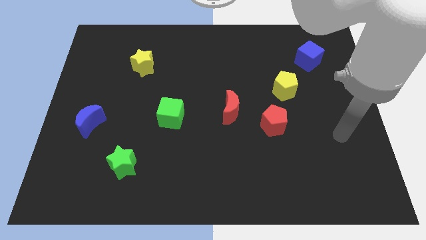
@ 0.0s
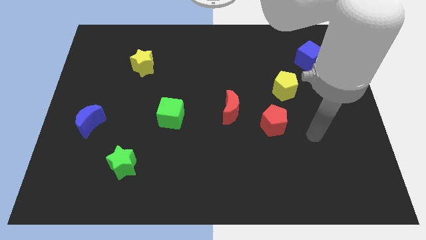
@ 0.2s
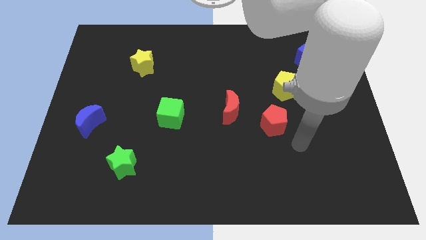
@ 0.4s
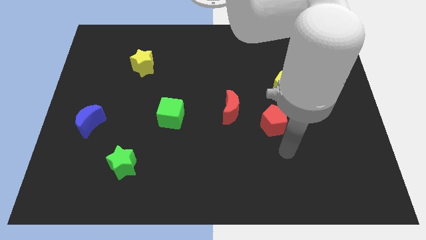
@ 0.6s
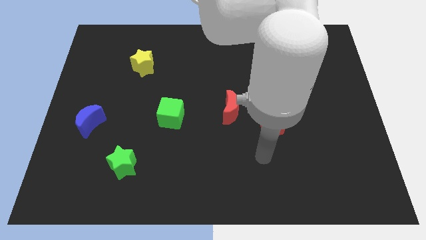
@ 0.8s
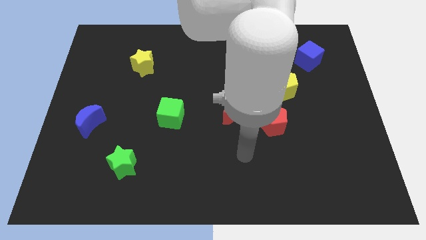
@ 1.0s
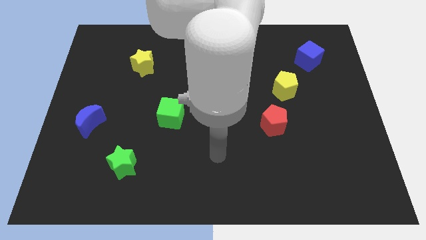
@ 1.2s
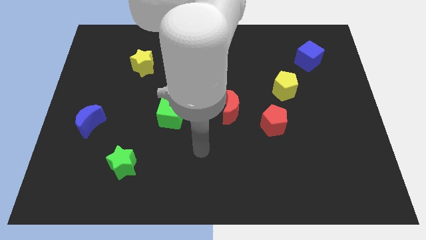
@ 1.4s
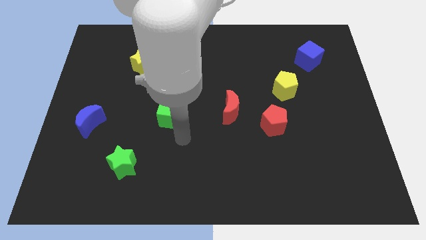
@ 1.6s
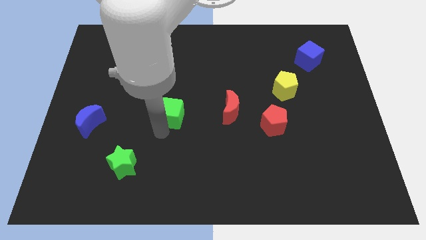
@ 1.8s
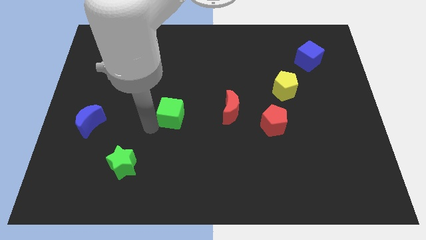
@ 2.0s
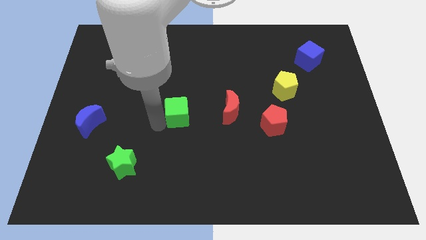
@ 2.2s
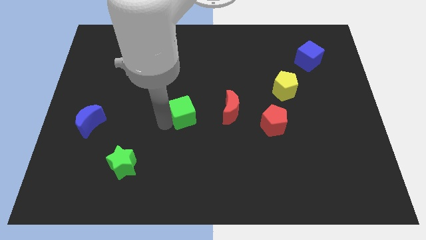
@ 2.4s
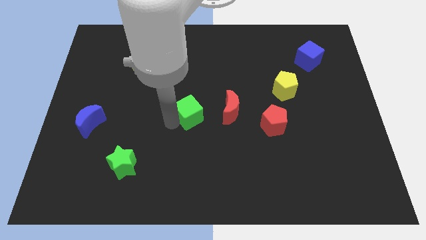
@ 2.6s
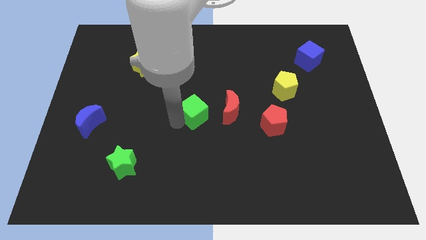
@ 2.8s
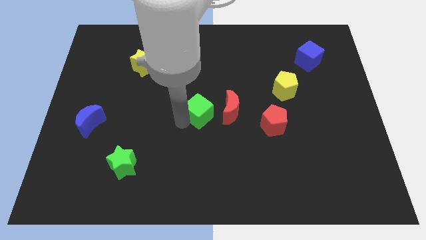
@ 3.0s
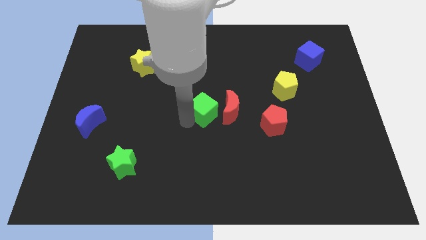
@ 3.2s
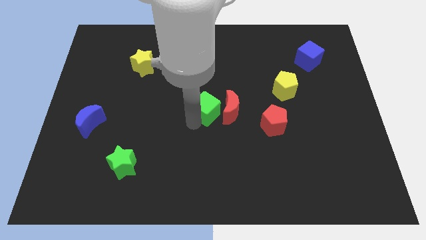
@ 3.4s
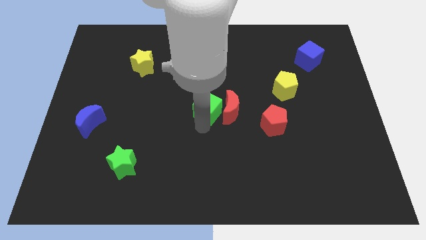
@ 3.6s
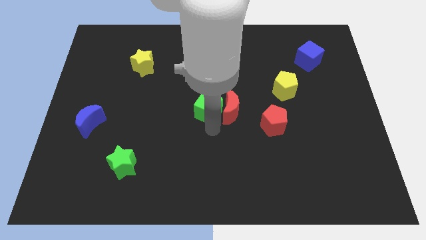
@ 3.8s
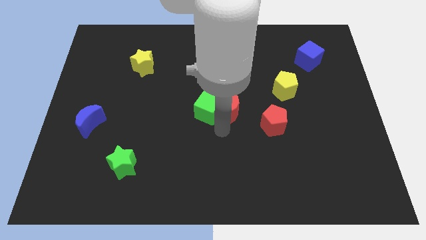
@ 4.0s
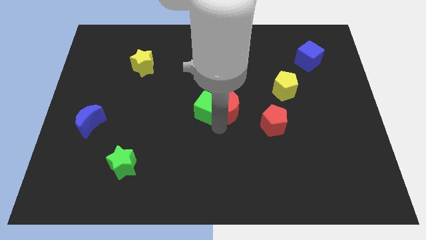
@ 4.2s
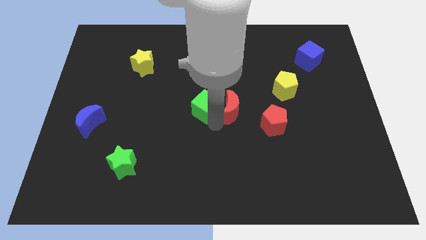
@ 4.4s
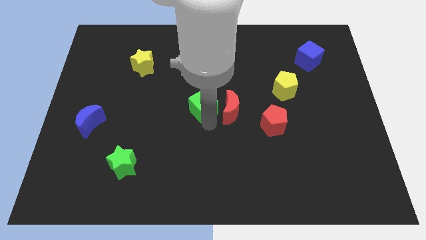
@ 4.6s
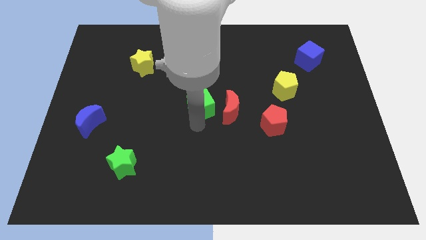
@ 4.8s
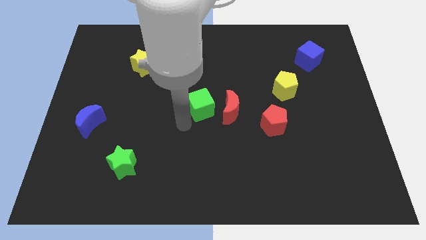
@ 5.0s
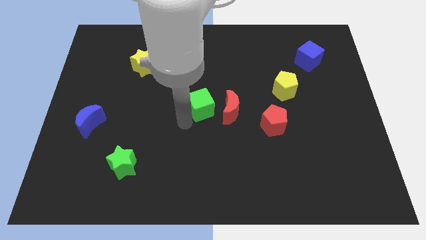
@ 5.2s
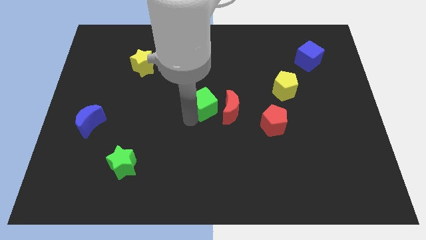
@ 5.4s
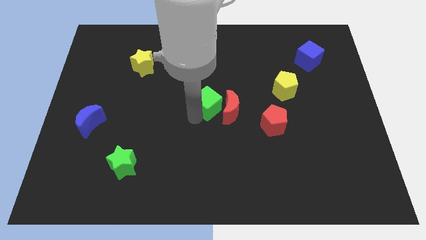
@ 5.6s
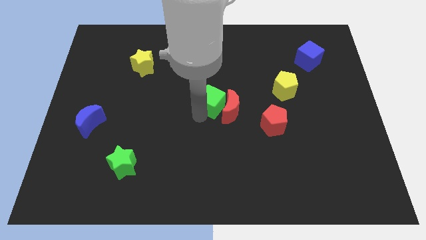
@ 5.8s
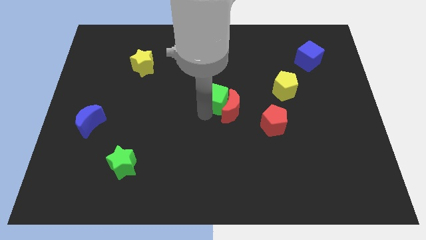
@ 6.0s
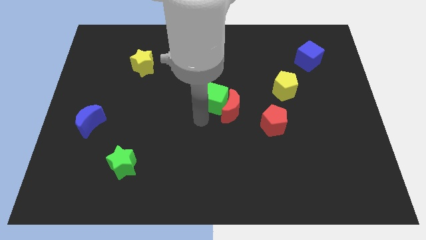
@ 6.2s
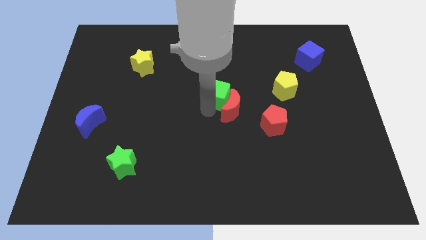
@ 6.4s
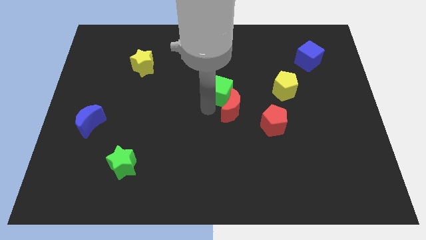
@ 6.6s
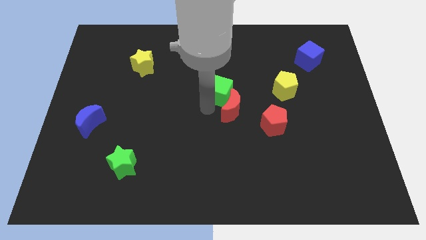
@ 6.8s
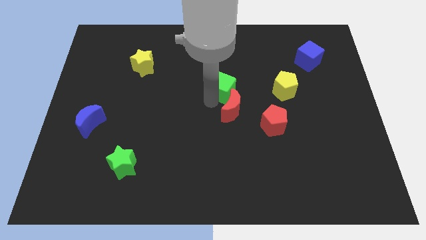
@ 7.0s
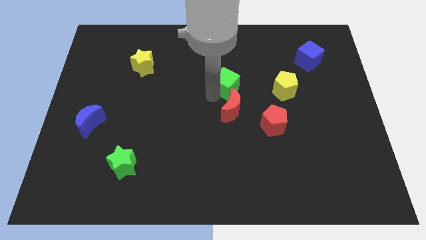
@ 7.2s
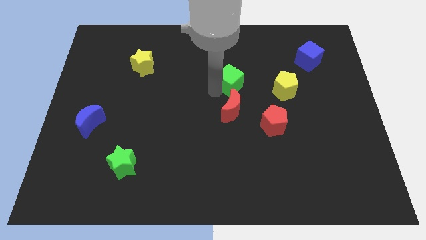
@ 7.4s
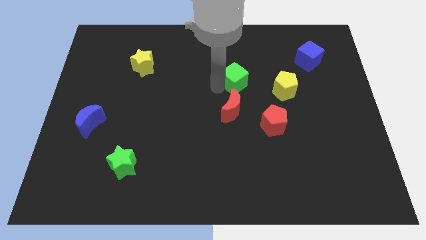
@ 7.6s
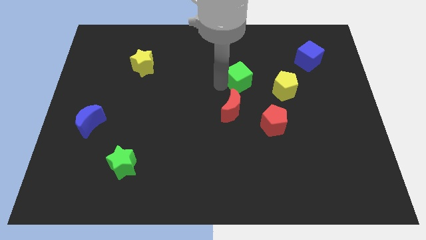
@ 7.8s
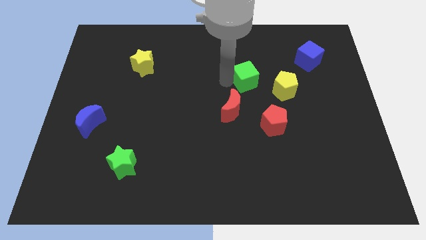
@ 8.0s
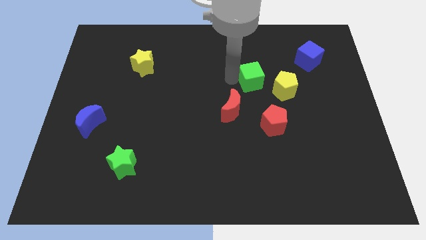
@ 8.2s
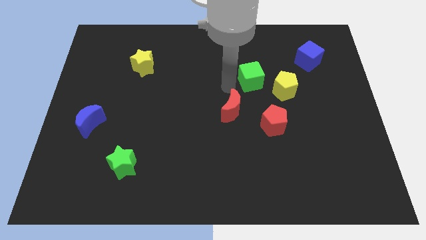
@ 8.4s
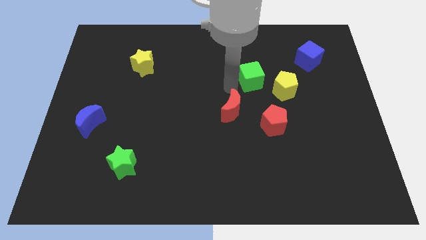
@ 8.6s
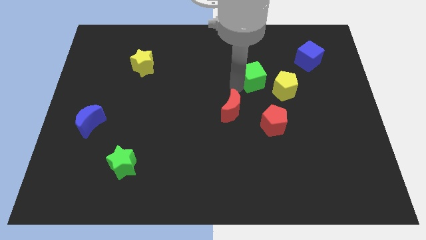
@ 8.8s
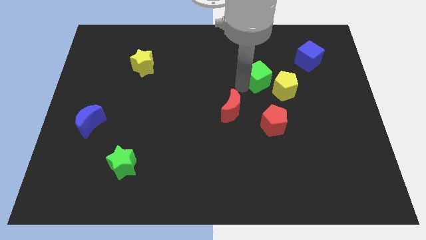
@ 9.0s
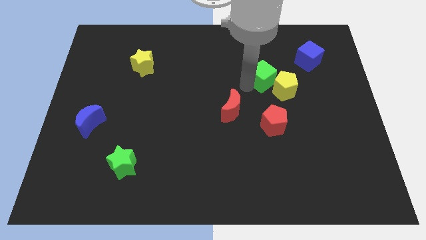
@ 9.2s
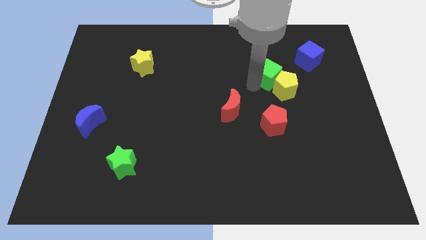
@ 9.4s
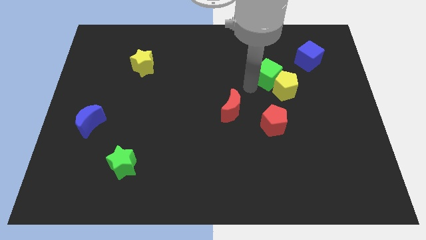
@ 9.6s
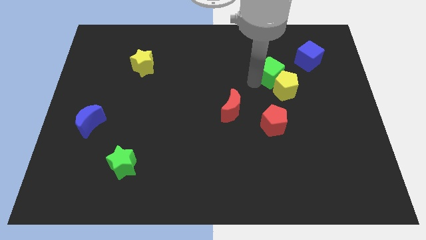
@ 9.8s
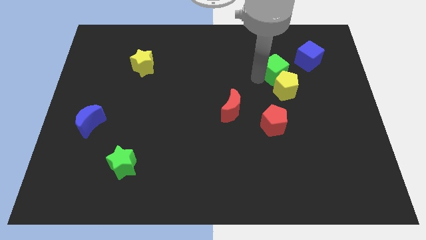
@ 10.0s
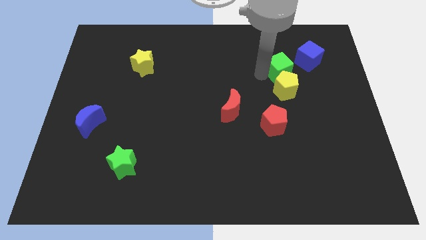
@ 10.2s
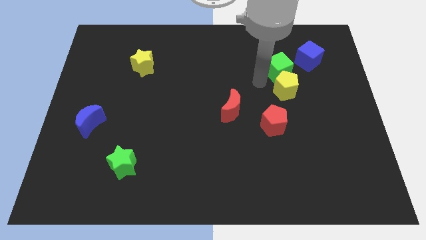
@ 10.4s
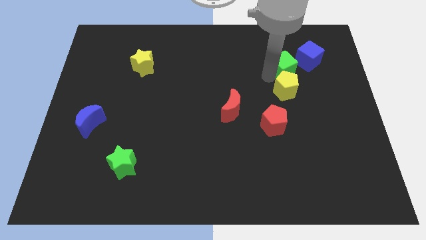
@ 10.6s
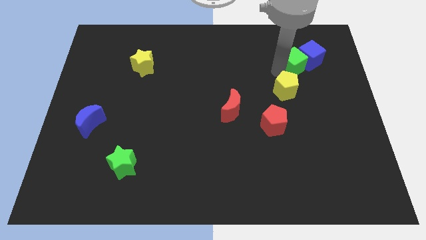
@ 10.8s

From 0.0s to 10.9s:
slide the green cube next to the blue cube

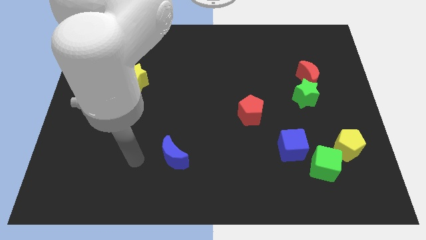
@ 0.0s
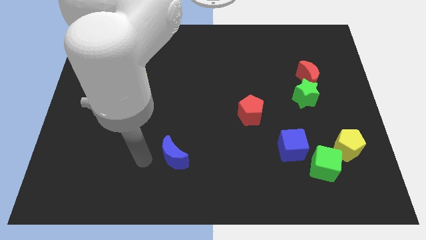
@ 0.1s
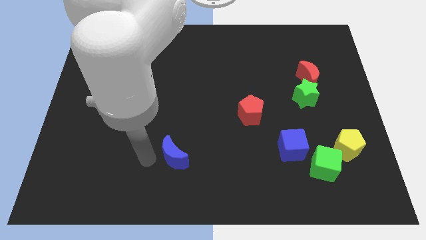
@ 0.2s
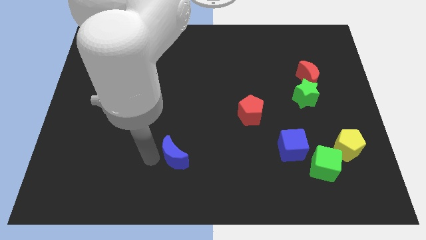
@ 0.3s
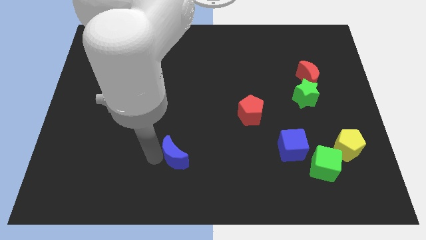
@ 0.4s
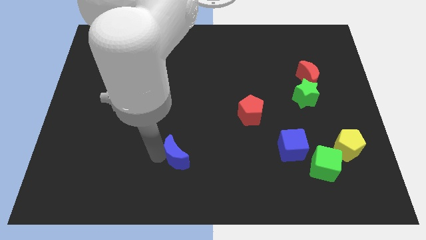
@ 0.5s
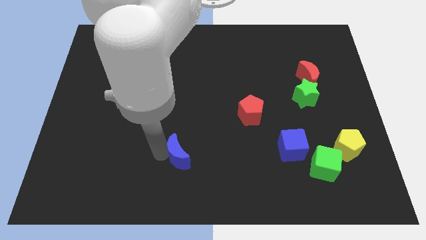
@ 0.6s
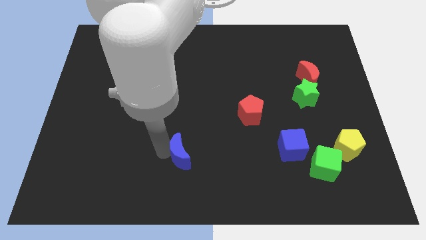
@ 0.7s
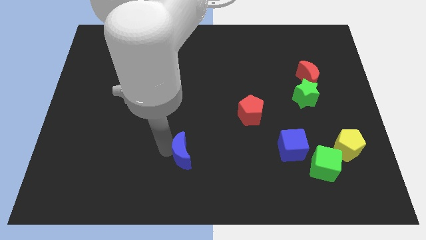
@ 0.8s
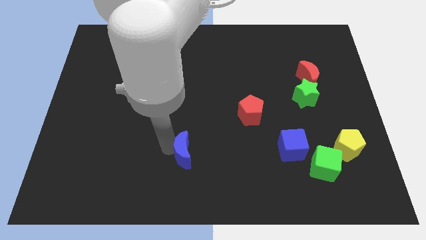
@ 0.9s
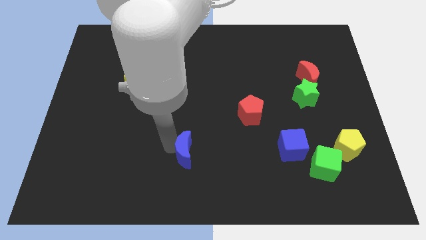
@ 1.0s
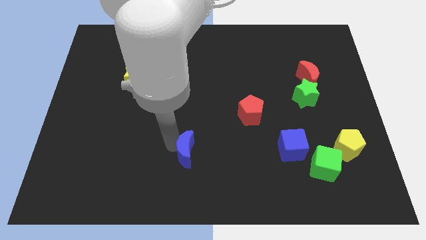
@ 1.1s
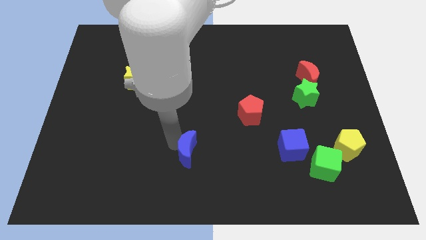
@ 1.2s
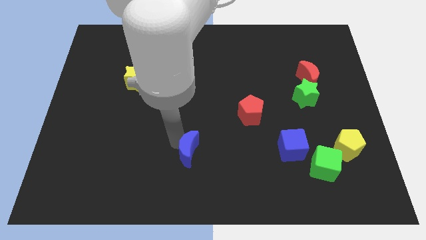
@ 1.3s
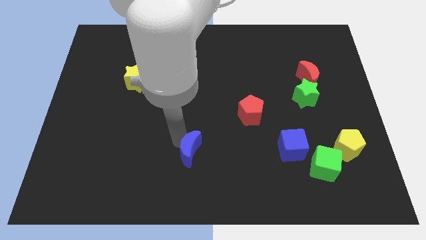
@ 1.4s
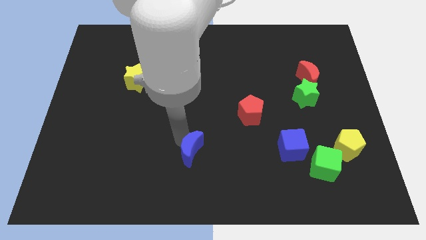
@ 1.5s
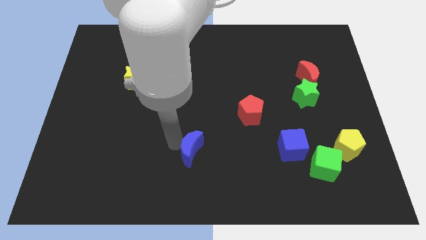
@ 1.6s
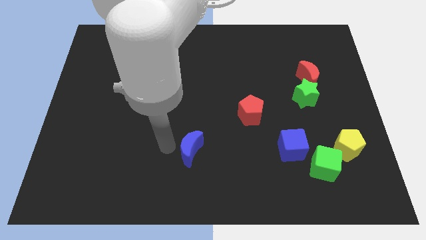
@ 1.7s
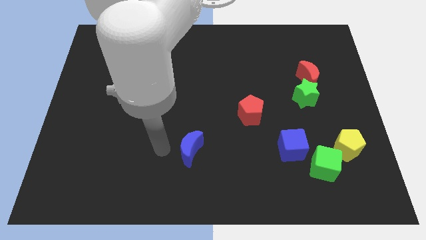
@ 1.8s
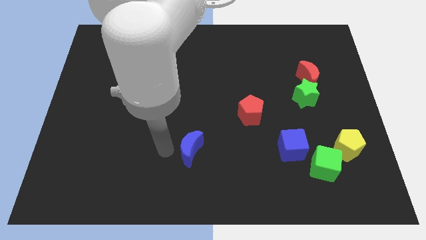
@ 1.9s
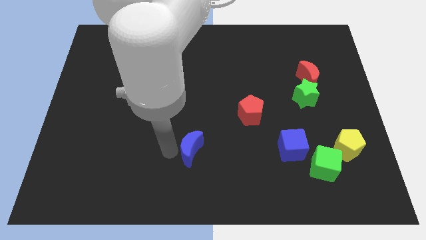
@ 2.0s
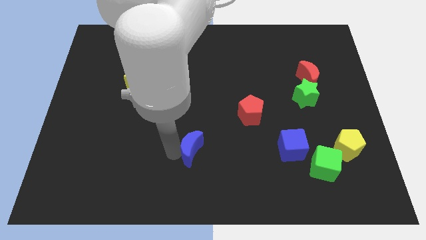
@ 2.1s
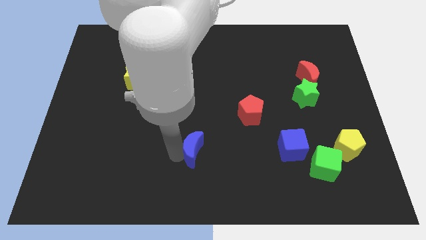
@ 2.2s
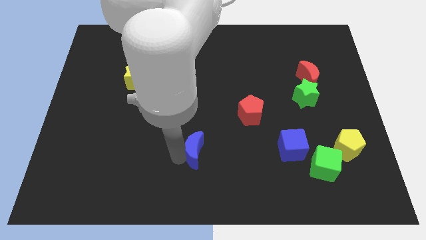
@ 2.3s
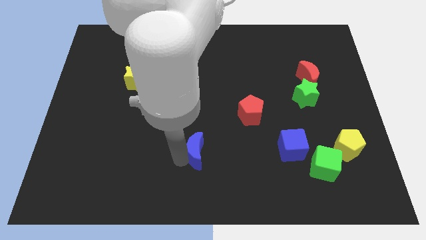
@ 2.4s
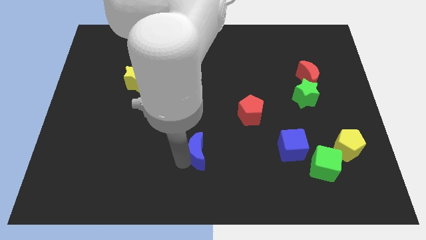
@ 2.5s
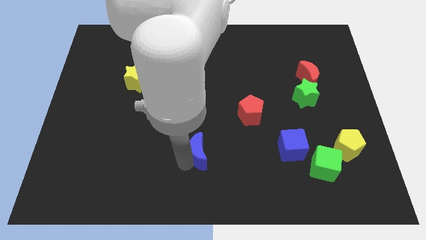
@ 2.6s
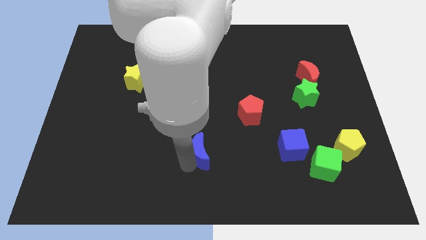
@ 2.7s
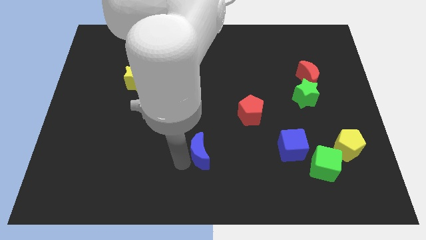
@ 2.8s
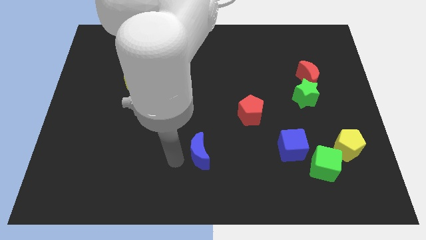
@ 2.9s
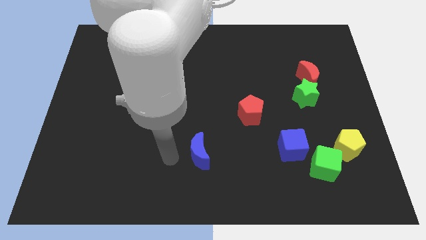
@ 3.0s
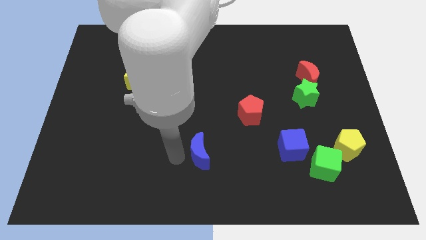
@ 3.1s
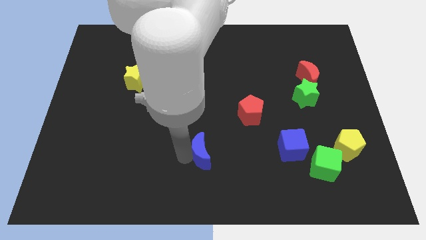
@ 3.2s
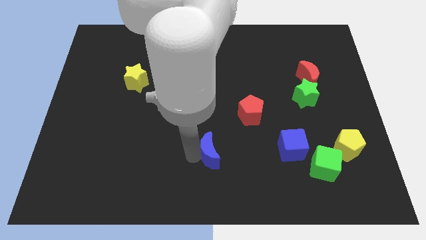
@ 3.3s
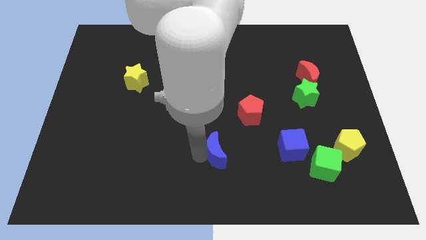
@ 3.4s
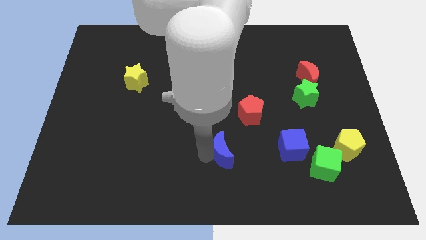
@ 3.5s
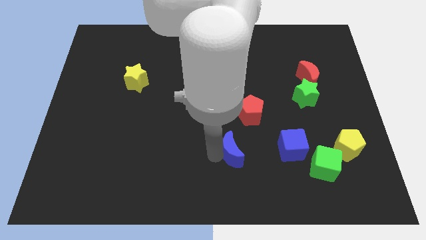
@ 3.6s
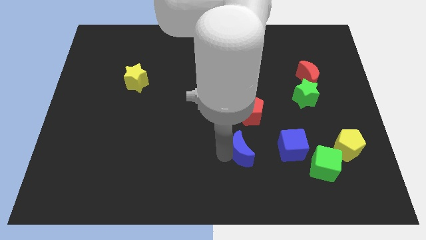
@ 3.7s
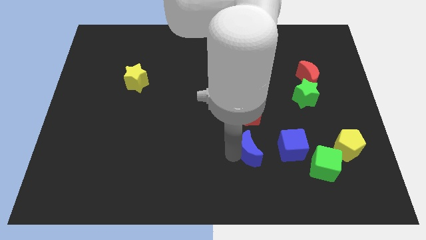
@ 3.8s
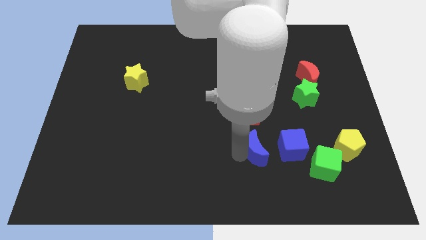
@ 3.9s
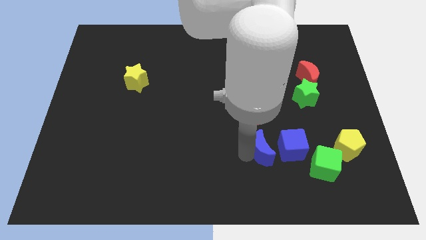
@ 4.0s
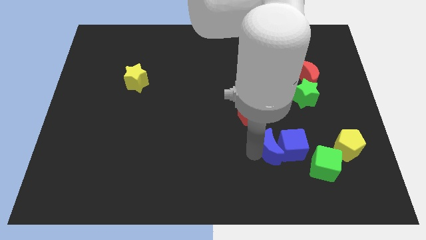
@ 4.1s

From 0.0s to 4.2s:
push the blue moon towards the blue cube
